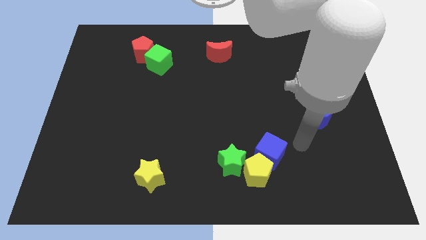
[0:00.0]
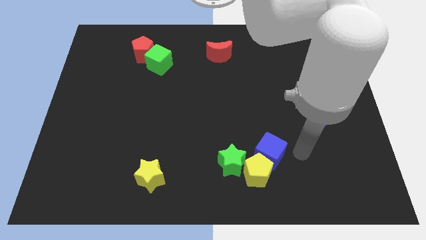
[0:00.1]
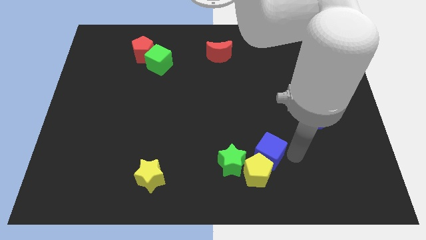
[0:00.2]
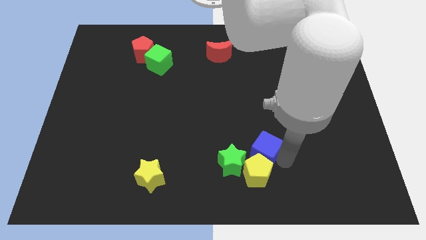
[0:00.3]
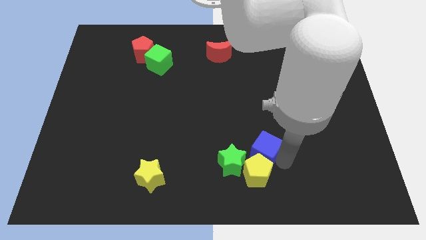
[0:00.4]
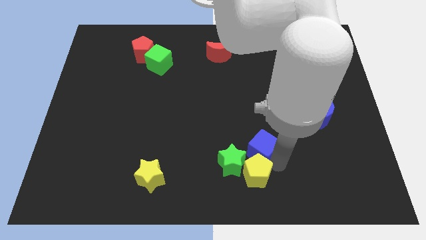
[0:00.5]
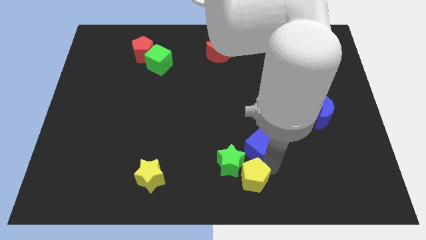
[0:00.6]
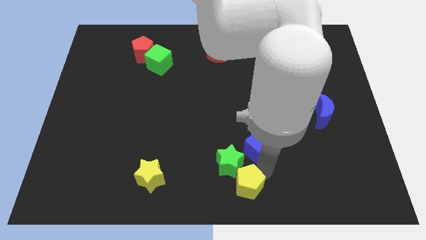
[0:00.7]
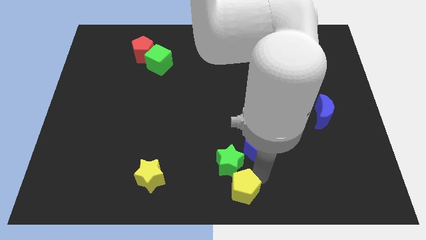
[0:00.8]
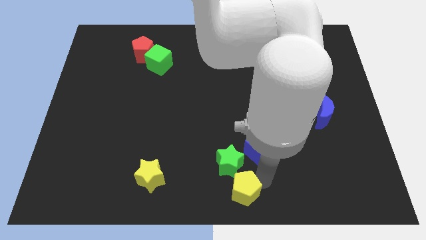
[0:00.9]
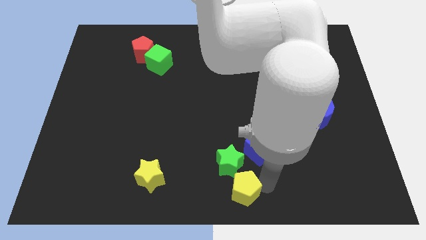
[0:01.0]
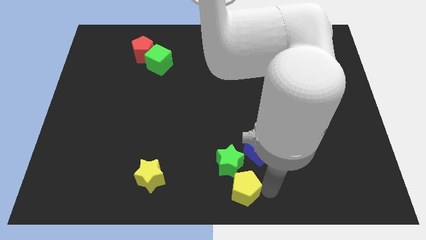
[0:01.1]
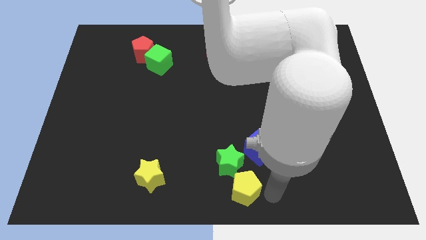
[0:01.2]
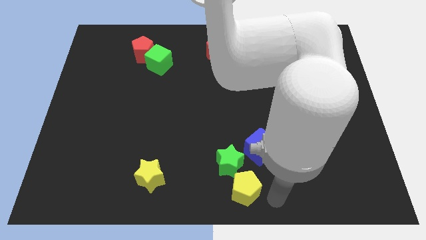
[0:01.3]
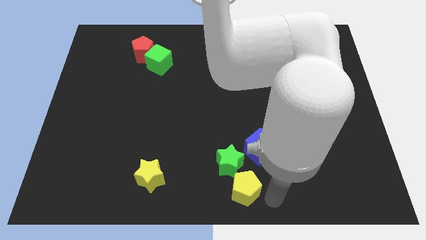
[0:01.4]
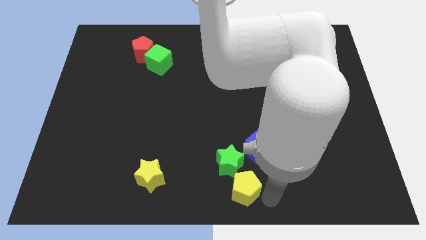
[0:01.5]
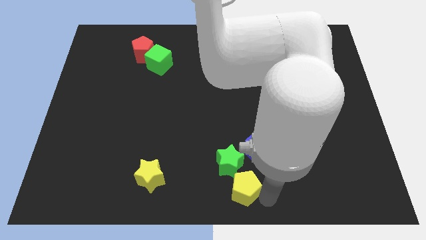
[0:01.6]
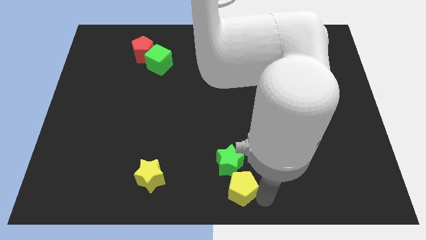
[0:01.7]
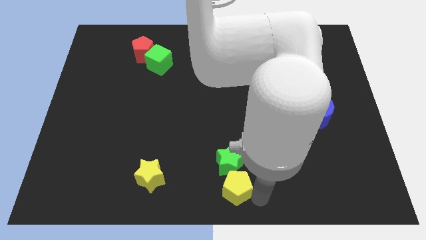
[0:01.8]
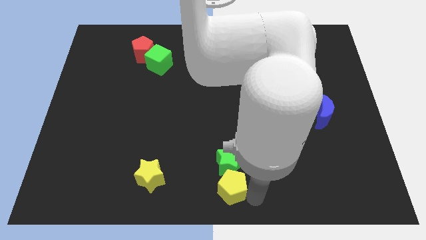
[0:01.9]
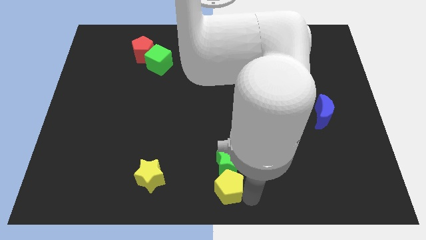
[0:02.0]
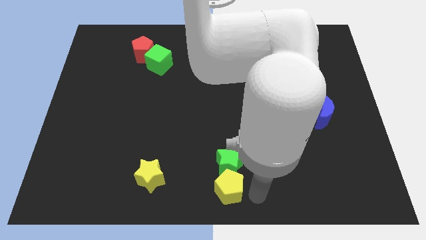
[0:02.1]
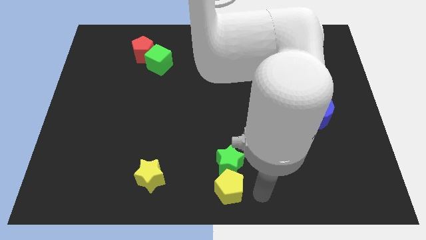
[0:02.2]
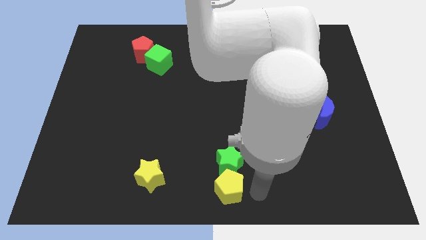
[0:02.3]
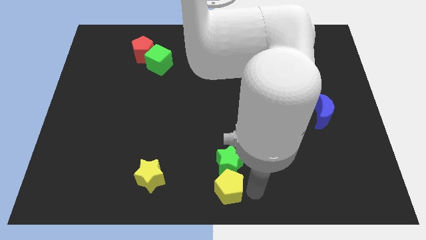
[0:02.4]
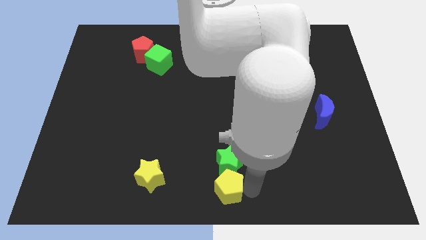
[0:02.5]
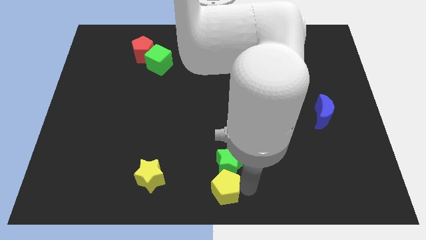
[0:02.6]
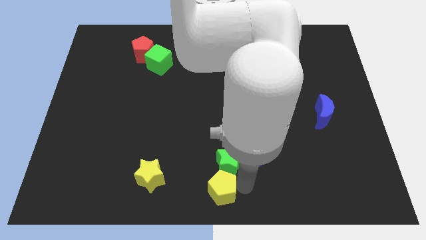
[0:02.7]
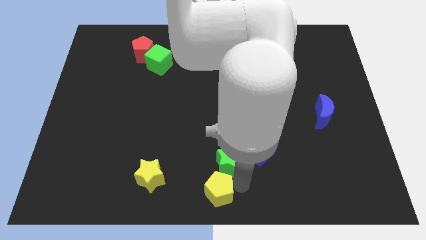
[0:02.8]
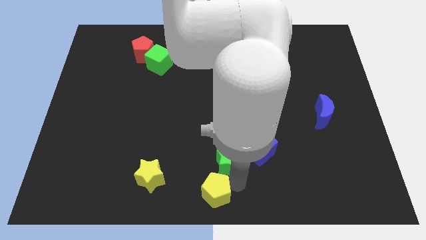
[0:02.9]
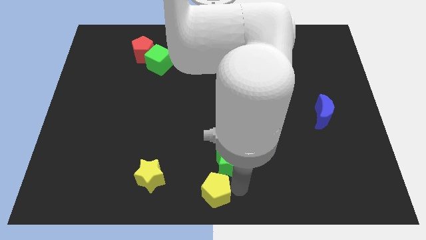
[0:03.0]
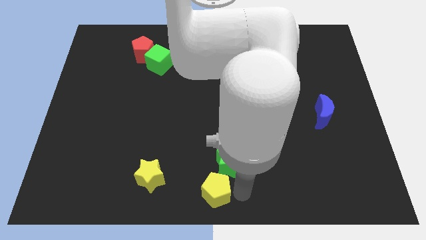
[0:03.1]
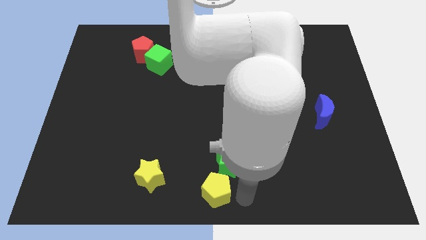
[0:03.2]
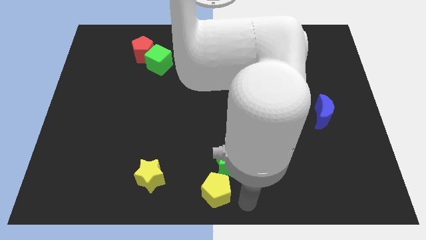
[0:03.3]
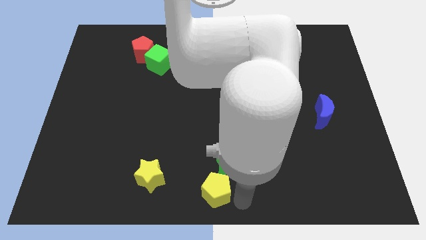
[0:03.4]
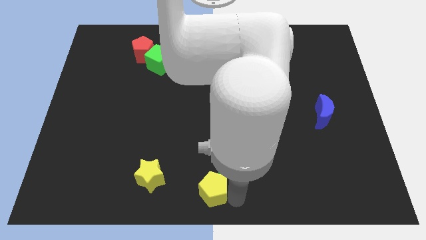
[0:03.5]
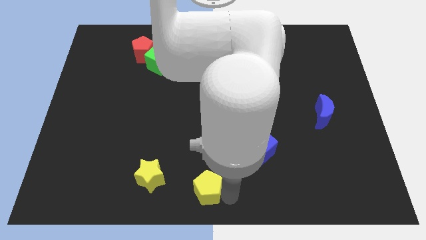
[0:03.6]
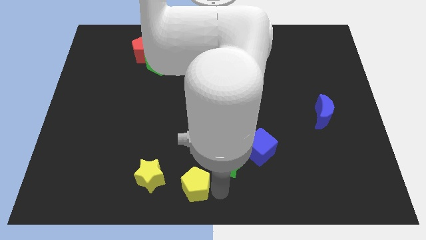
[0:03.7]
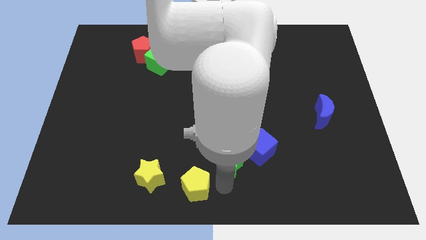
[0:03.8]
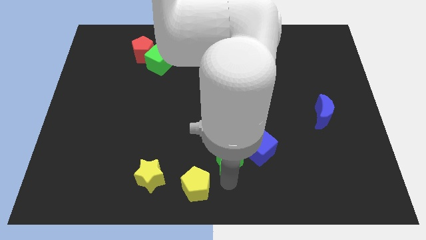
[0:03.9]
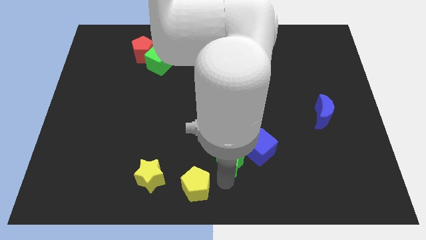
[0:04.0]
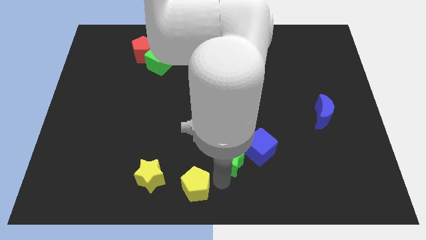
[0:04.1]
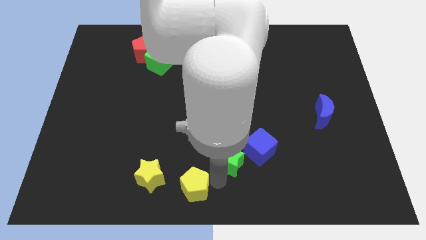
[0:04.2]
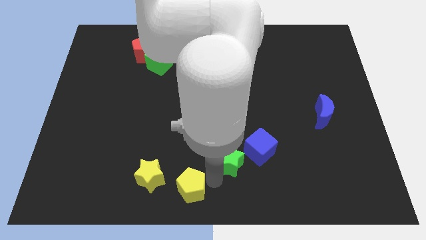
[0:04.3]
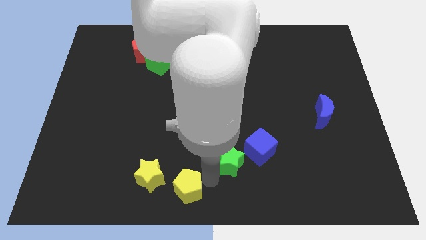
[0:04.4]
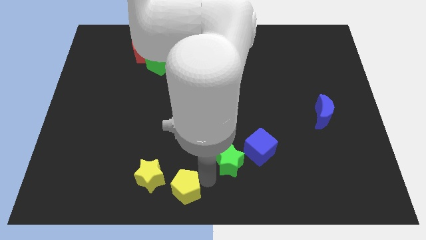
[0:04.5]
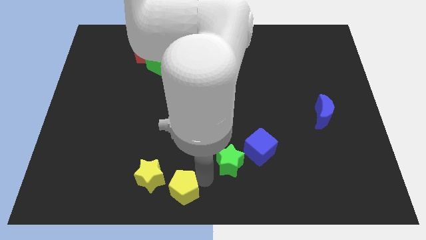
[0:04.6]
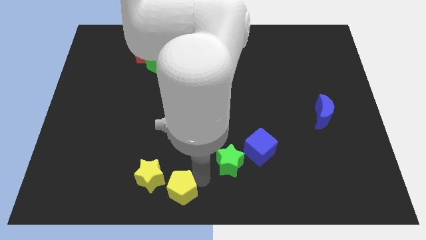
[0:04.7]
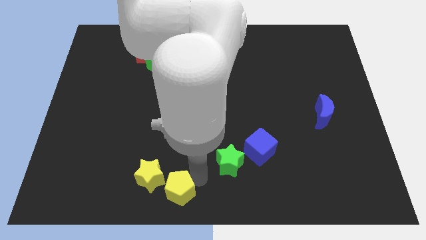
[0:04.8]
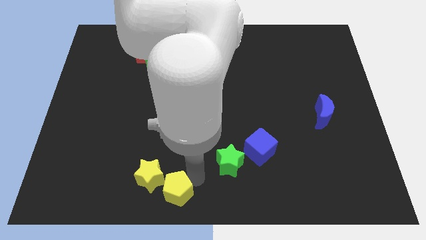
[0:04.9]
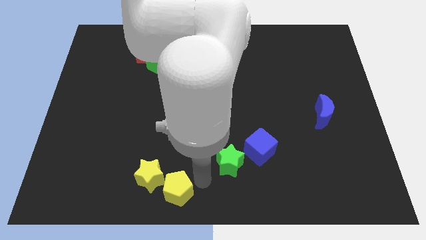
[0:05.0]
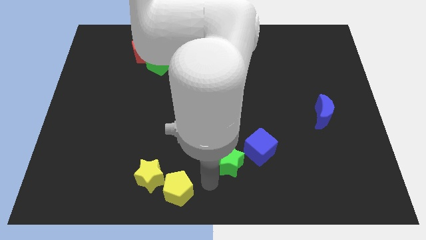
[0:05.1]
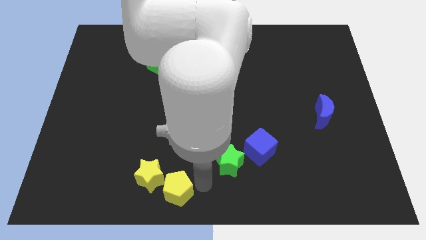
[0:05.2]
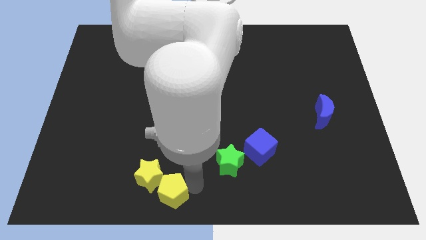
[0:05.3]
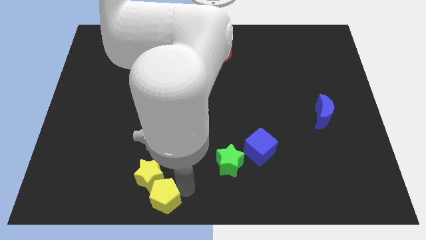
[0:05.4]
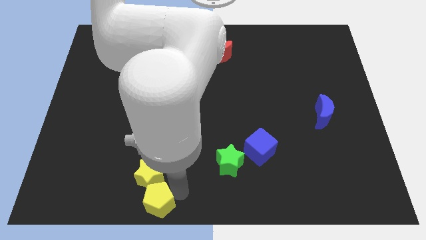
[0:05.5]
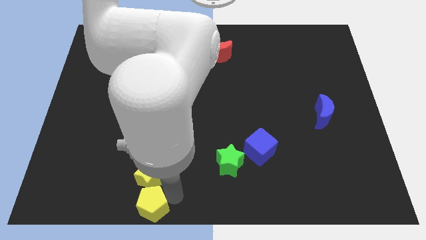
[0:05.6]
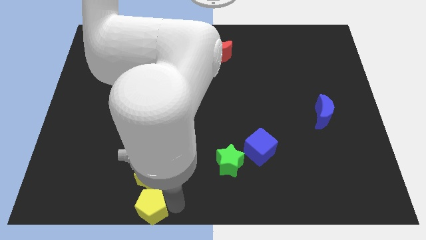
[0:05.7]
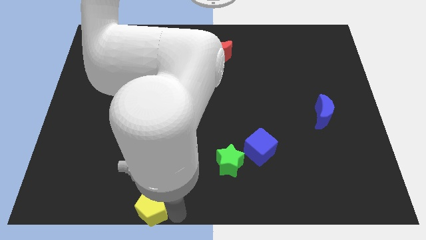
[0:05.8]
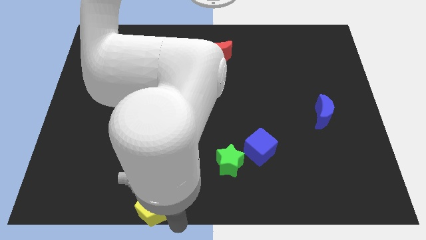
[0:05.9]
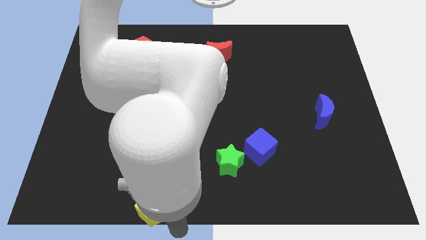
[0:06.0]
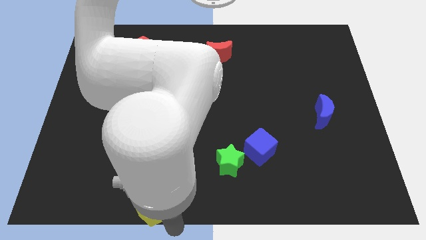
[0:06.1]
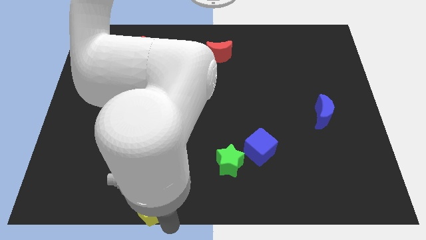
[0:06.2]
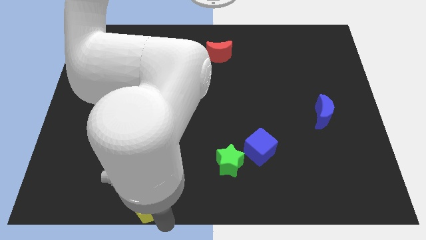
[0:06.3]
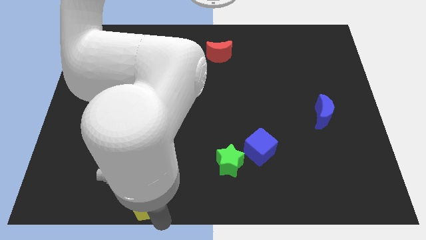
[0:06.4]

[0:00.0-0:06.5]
slide the yellow pentagon to the left

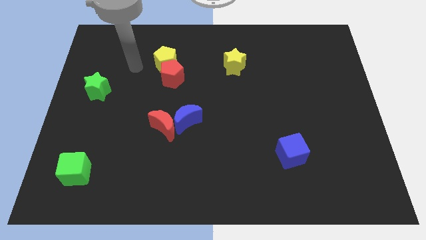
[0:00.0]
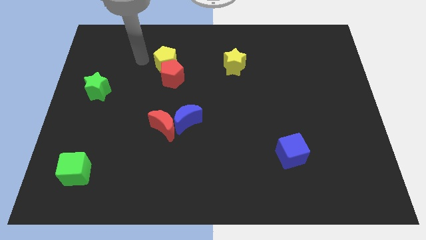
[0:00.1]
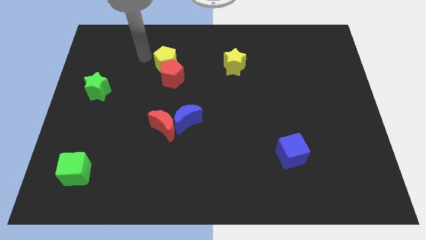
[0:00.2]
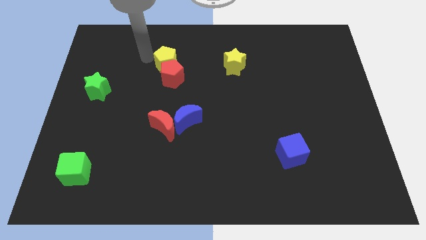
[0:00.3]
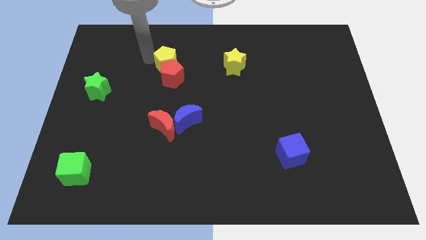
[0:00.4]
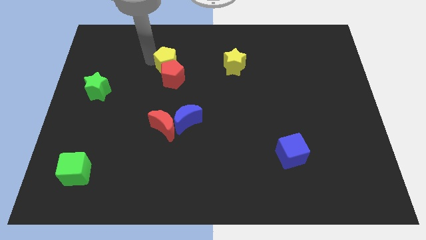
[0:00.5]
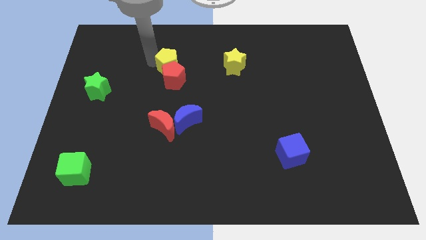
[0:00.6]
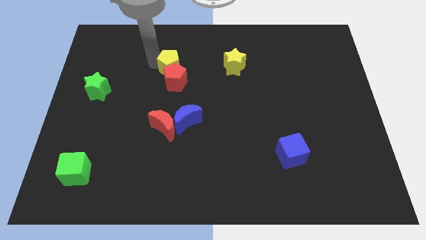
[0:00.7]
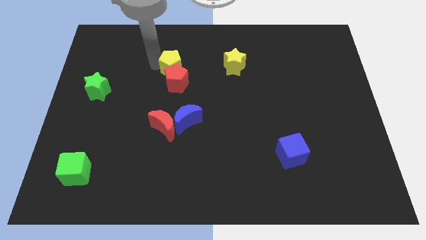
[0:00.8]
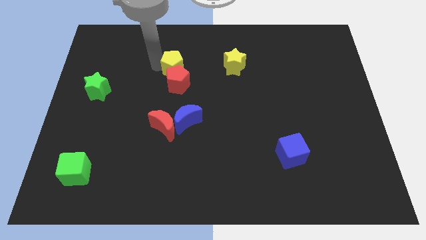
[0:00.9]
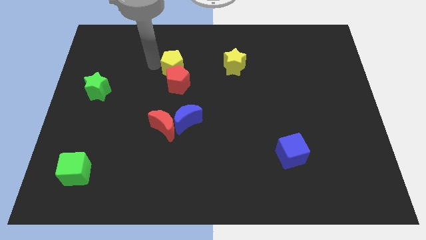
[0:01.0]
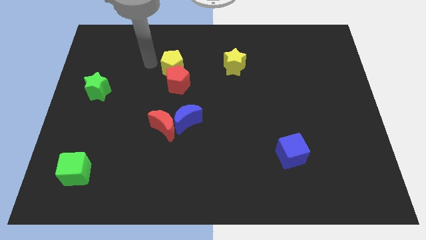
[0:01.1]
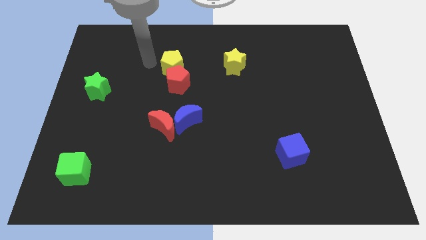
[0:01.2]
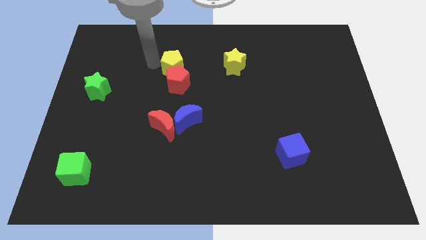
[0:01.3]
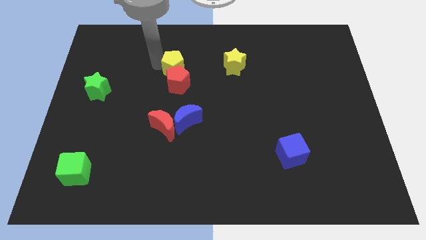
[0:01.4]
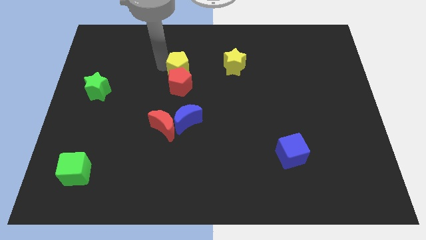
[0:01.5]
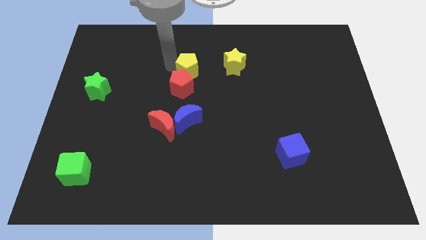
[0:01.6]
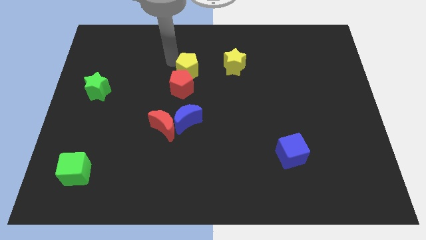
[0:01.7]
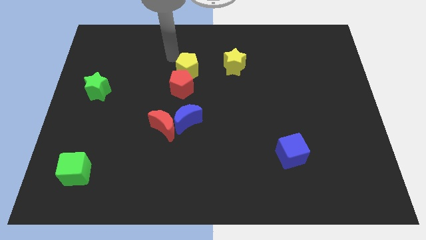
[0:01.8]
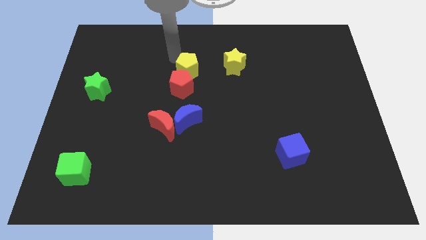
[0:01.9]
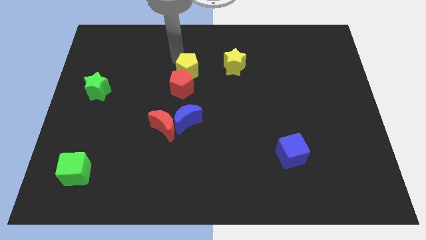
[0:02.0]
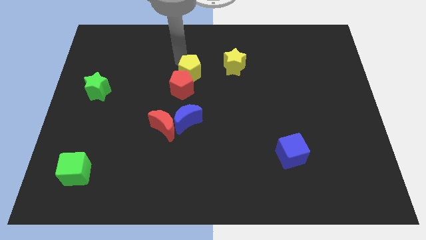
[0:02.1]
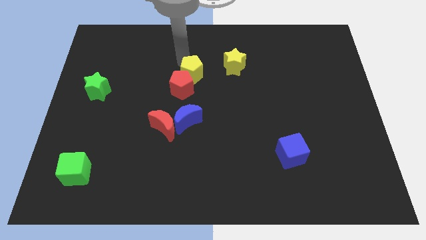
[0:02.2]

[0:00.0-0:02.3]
slide the yellow pentagon somewhat diagonally downwards and to the right
